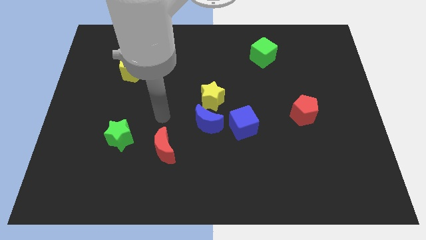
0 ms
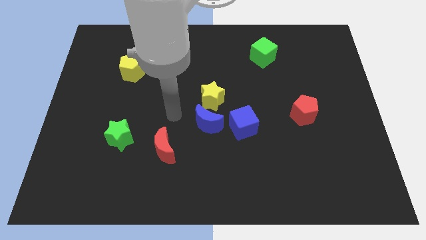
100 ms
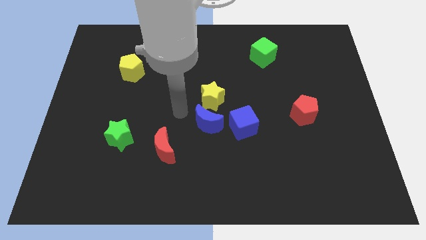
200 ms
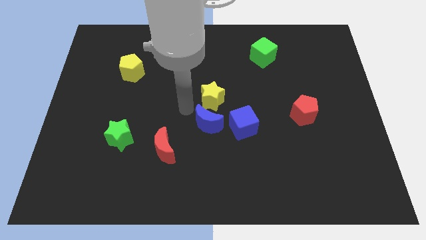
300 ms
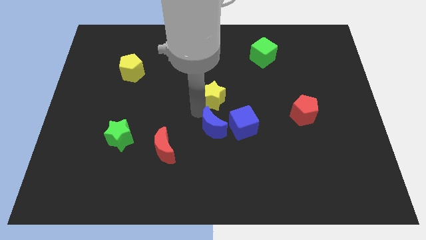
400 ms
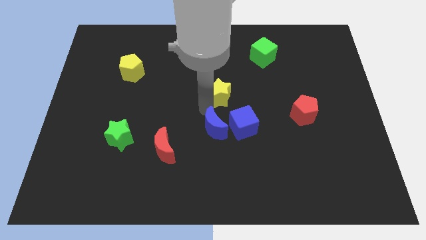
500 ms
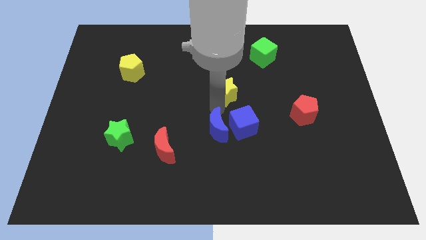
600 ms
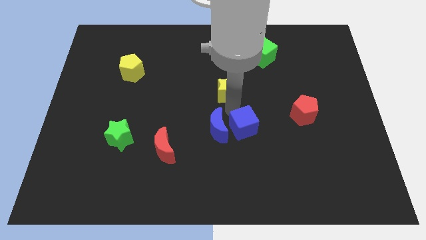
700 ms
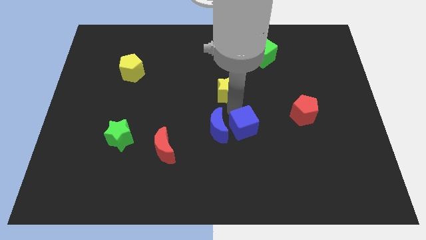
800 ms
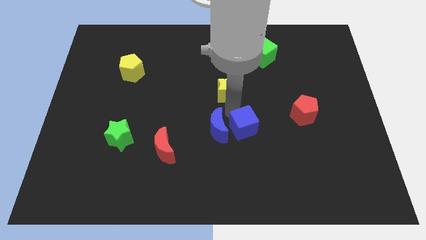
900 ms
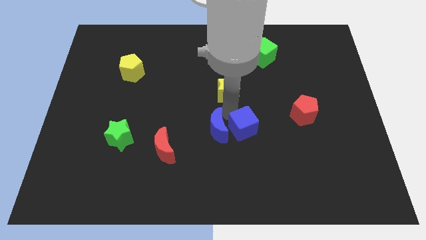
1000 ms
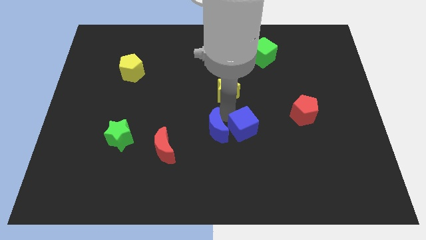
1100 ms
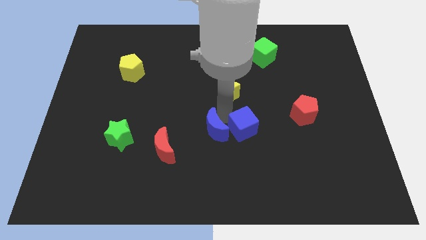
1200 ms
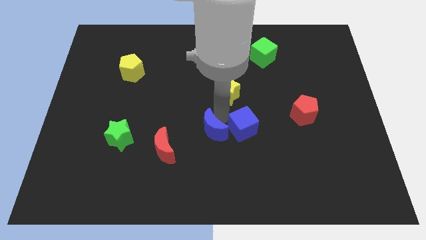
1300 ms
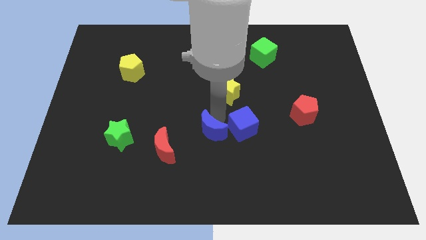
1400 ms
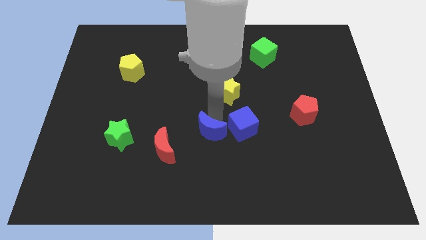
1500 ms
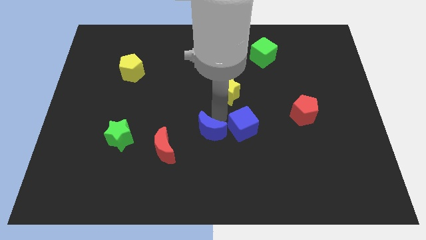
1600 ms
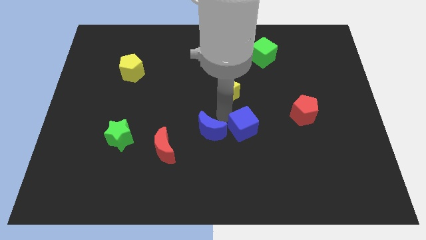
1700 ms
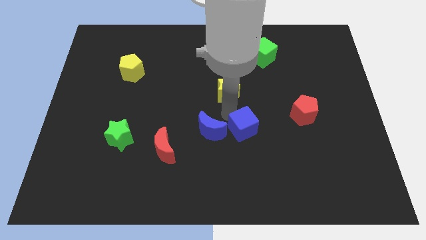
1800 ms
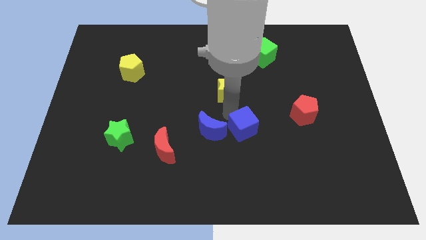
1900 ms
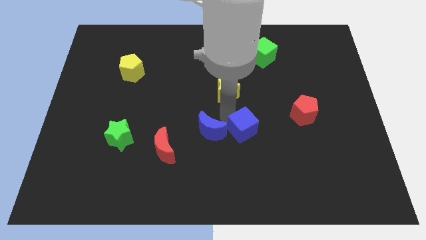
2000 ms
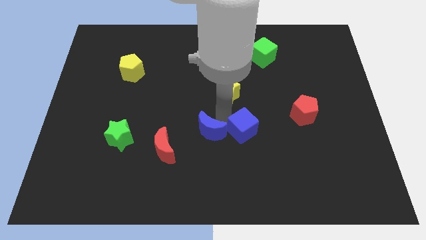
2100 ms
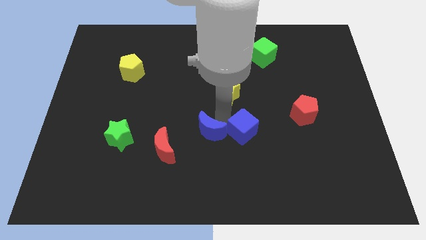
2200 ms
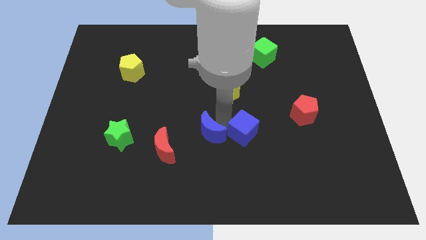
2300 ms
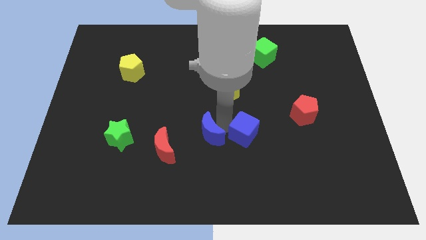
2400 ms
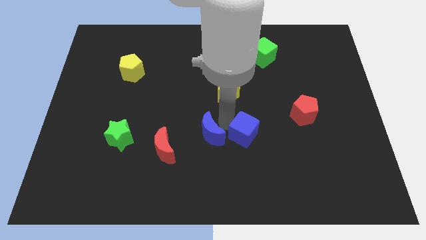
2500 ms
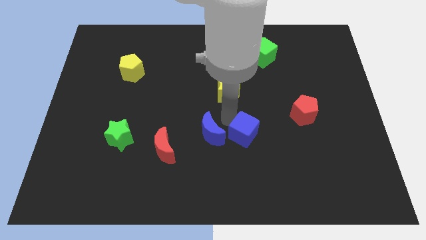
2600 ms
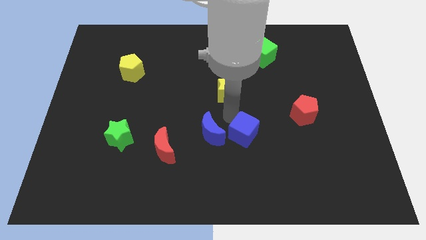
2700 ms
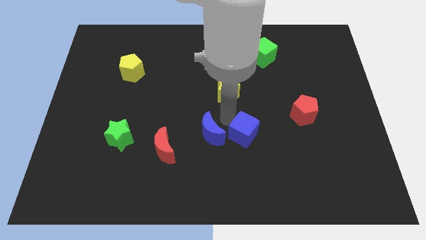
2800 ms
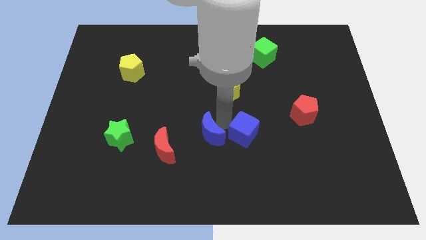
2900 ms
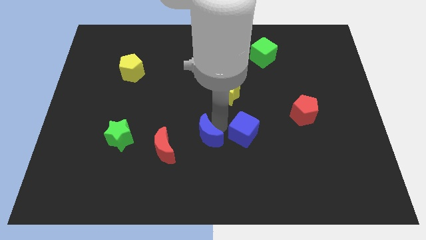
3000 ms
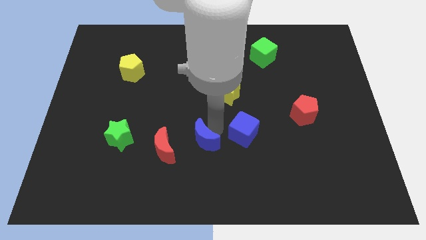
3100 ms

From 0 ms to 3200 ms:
pull the blue moon apart from the yellow star and blue cube

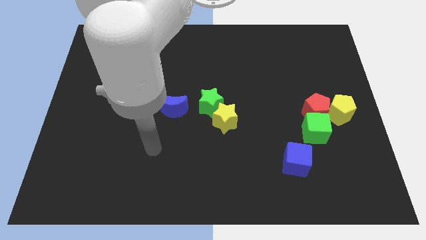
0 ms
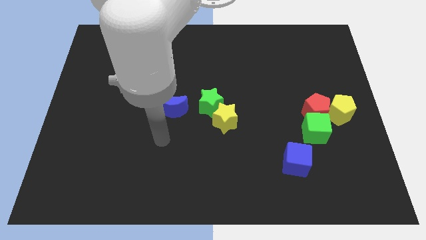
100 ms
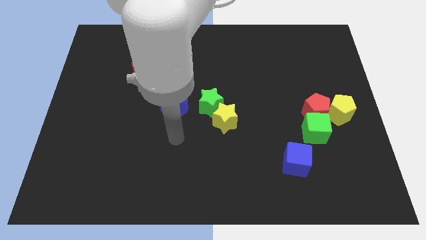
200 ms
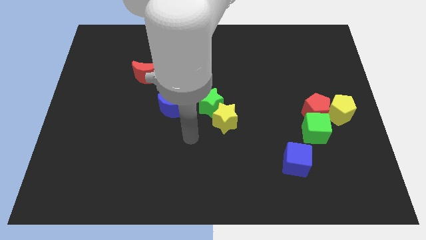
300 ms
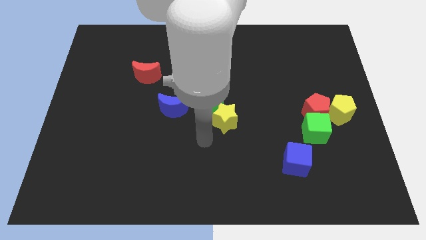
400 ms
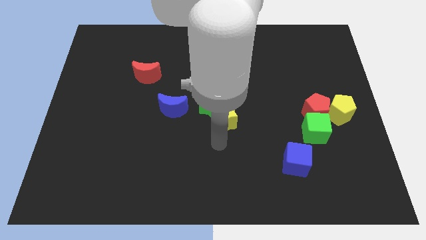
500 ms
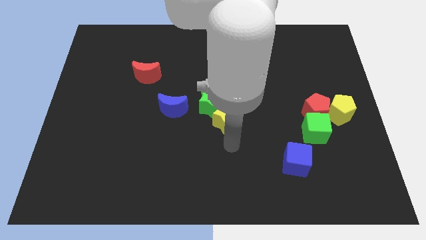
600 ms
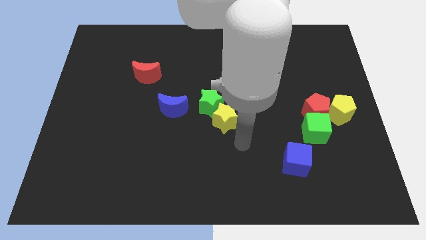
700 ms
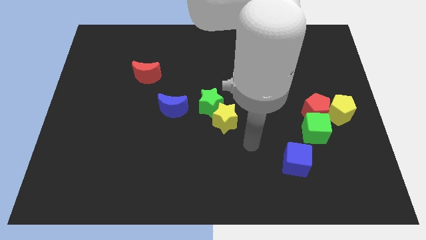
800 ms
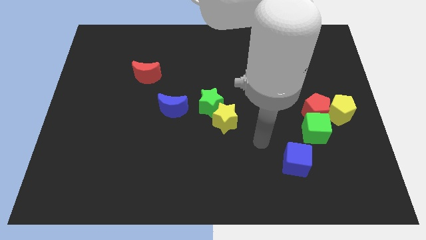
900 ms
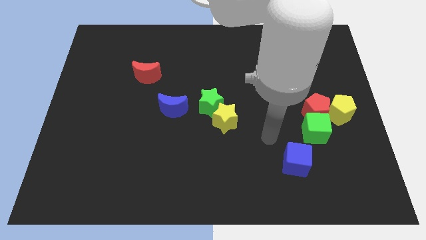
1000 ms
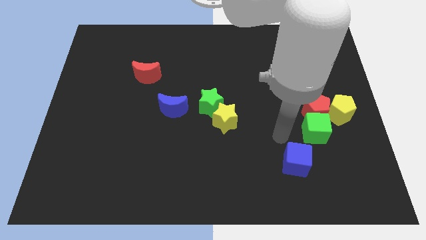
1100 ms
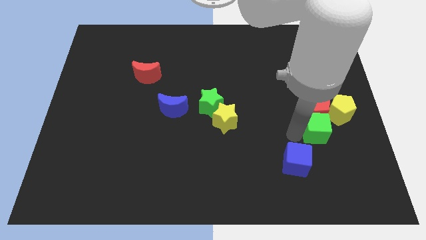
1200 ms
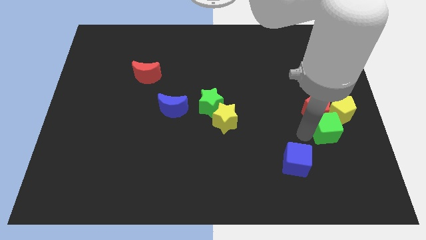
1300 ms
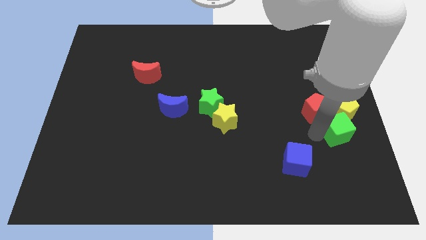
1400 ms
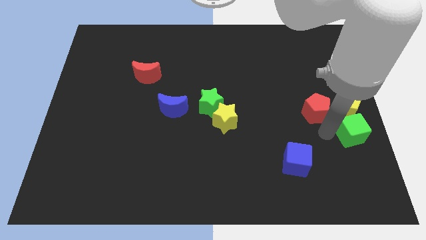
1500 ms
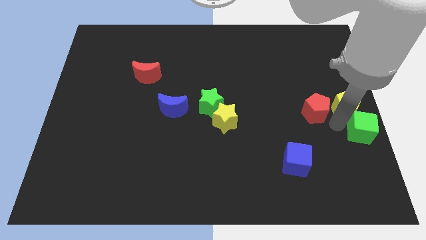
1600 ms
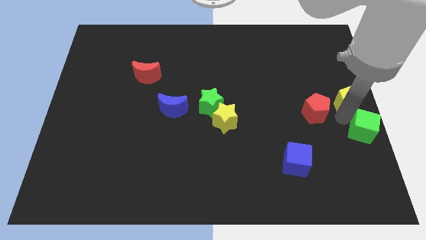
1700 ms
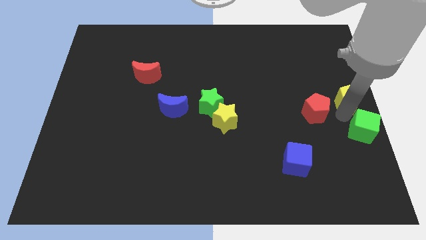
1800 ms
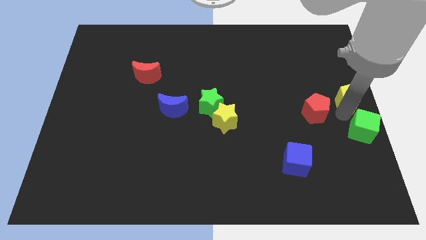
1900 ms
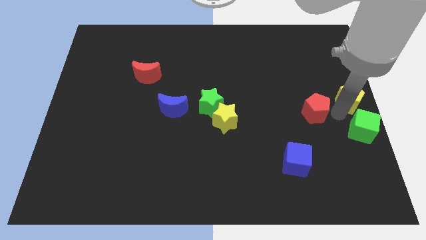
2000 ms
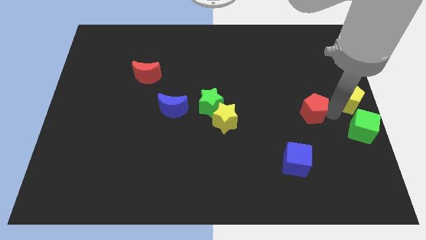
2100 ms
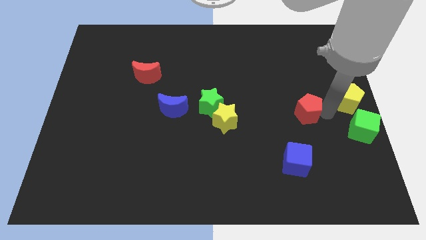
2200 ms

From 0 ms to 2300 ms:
move the red pentagon away from the green cube and yellow pentagon

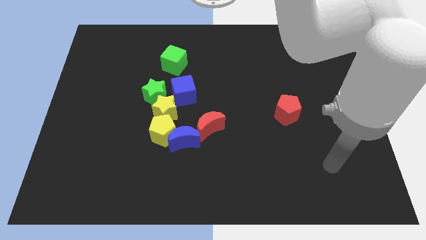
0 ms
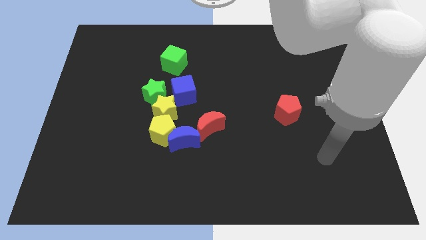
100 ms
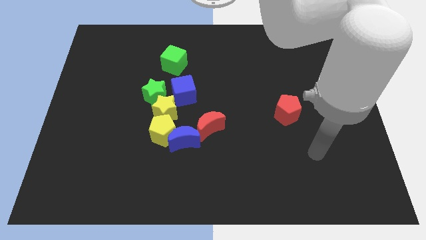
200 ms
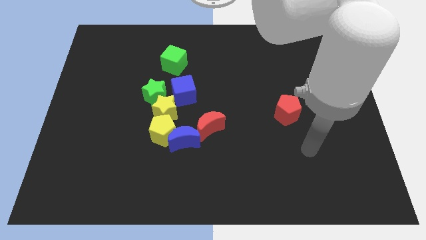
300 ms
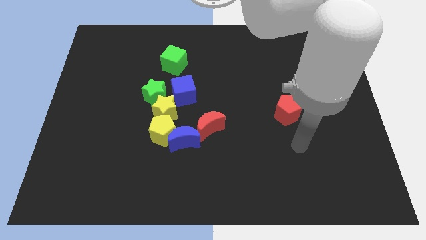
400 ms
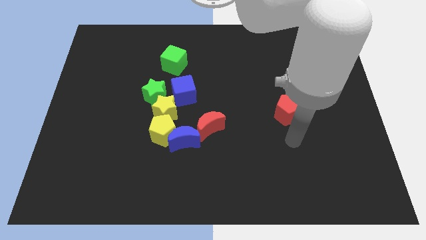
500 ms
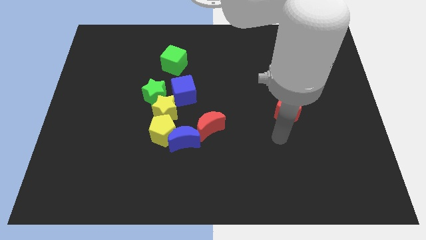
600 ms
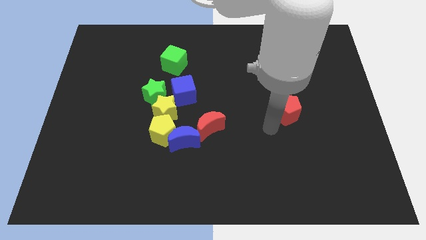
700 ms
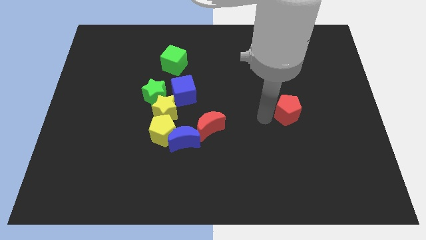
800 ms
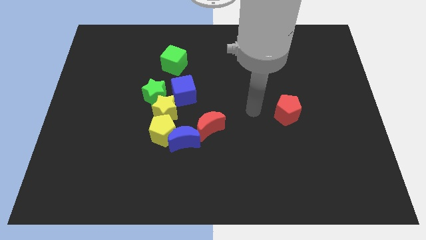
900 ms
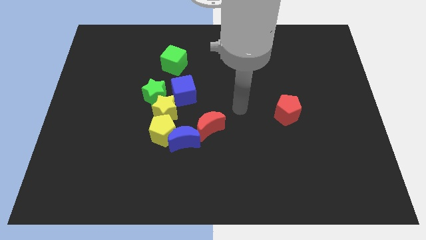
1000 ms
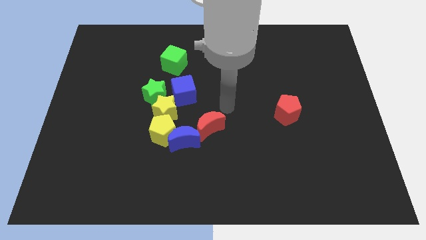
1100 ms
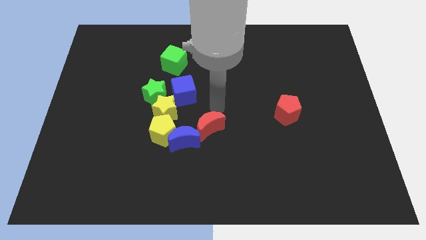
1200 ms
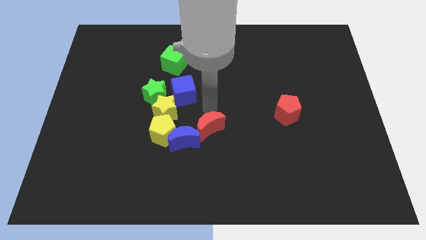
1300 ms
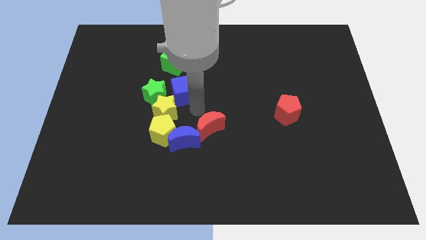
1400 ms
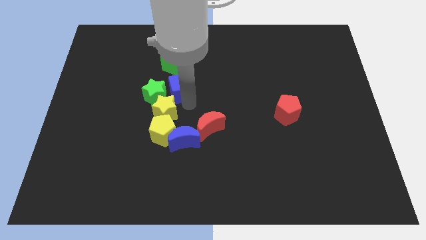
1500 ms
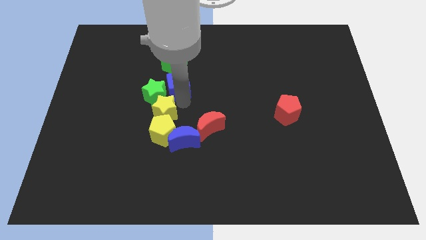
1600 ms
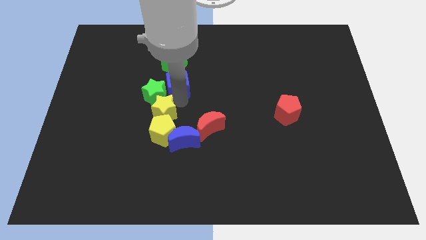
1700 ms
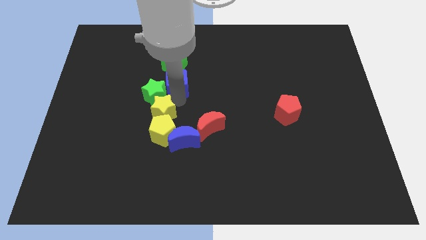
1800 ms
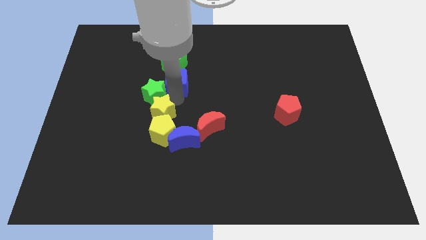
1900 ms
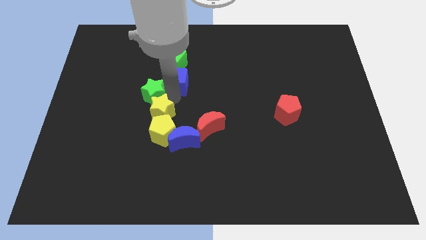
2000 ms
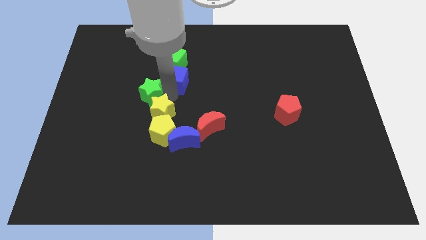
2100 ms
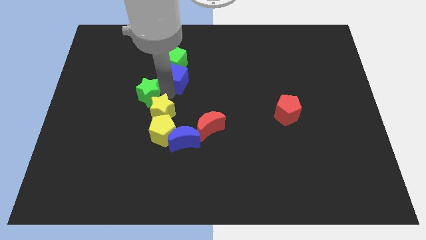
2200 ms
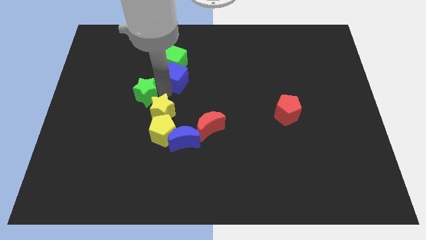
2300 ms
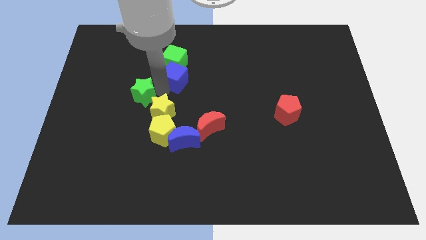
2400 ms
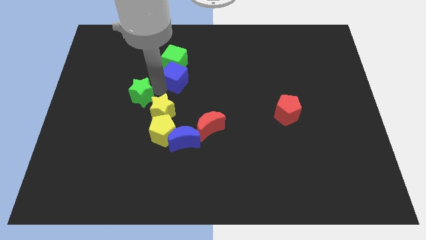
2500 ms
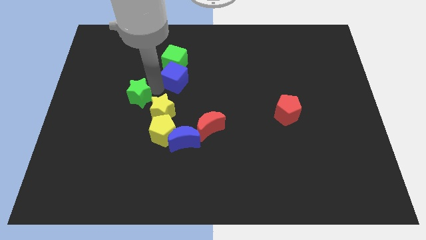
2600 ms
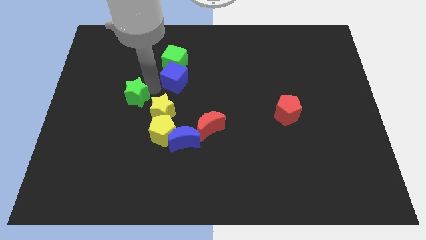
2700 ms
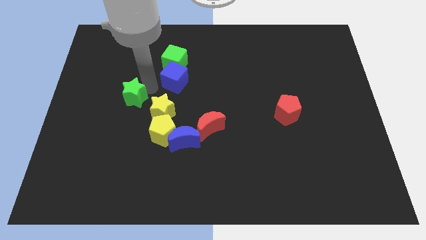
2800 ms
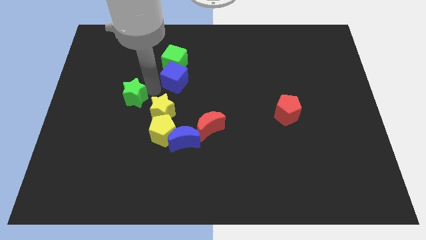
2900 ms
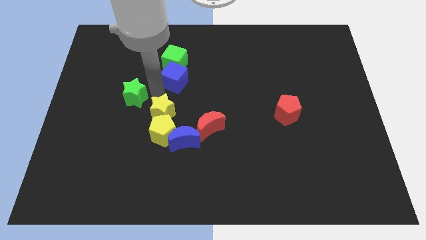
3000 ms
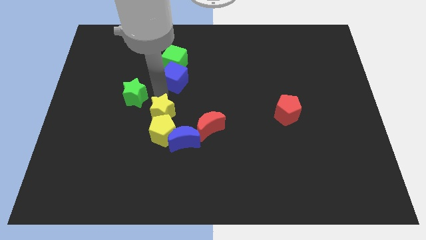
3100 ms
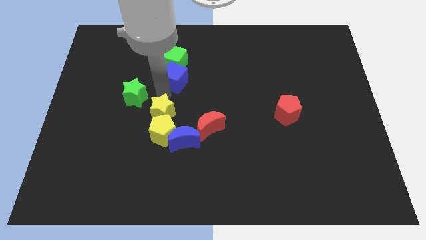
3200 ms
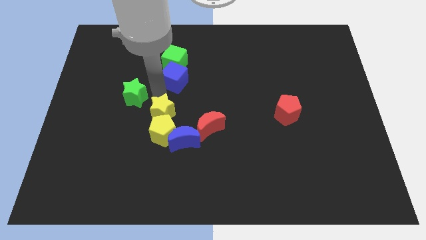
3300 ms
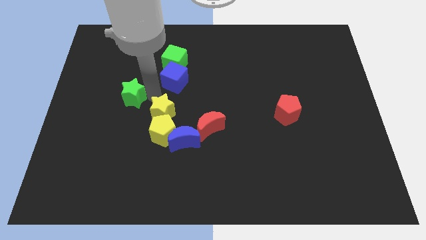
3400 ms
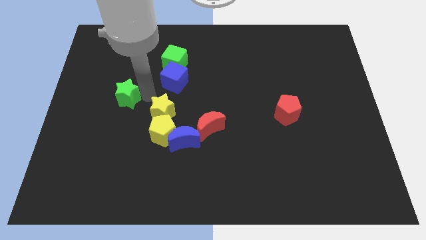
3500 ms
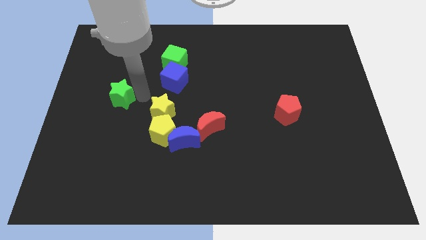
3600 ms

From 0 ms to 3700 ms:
move the green star away from the yellow star and blue cube

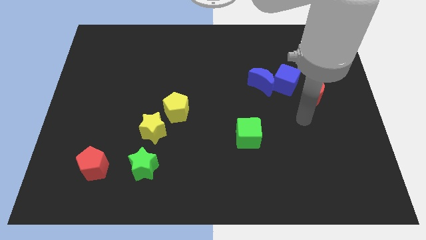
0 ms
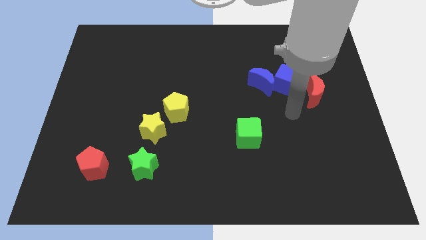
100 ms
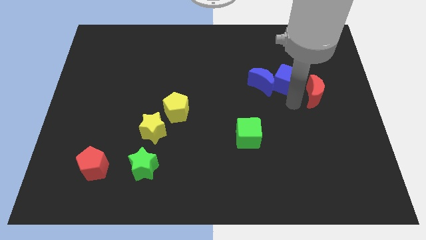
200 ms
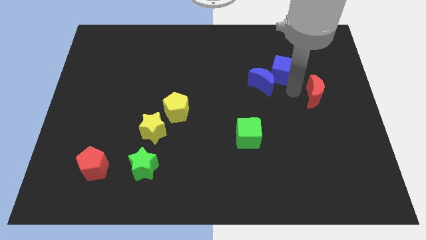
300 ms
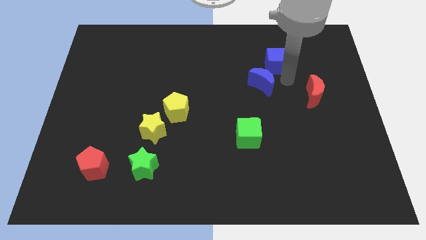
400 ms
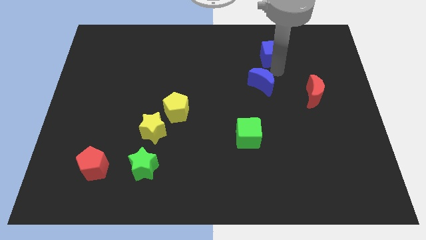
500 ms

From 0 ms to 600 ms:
move the blue moon away from the blue cube
